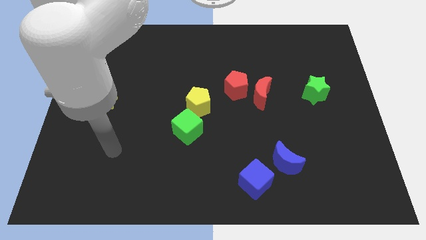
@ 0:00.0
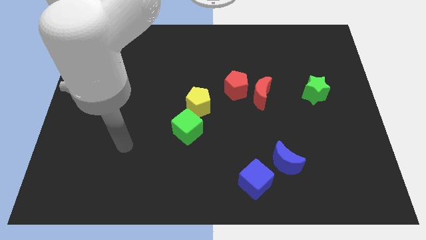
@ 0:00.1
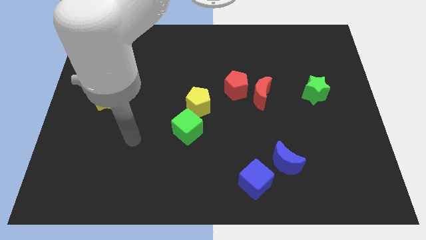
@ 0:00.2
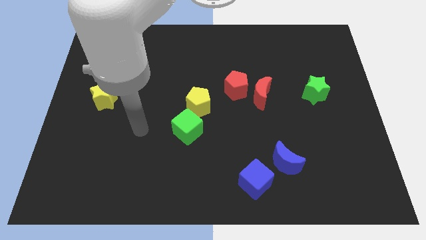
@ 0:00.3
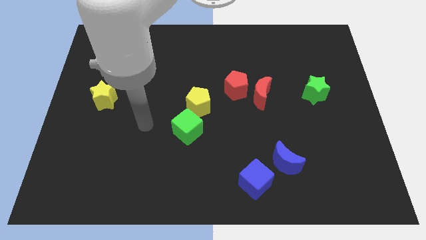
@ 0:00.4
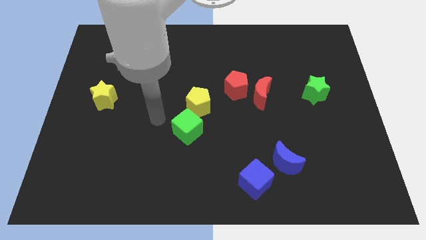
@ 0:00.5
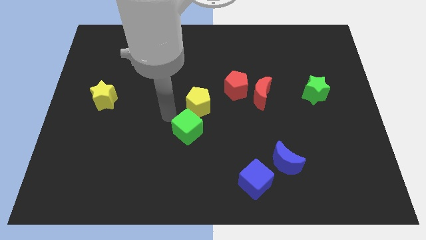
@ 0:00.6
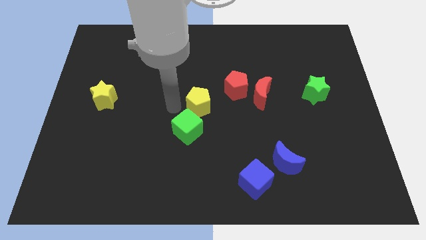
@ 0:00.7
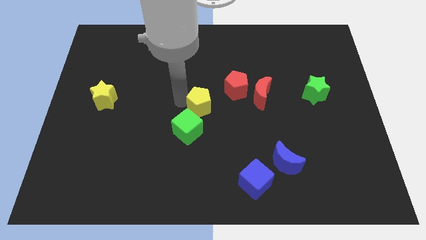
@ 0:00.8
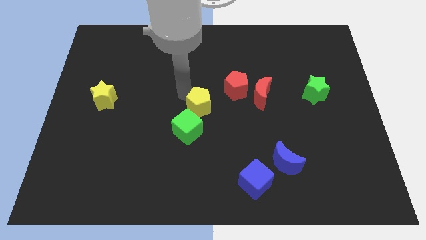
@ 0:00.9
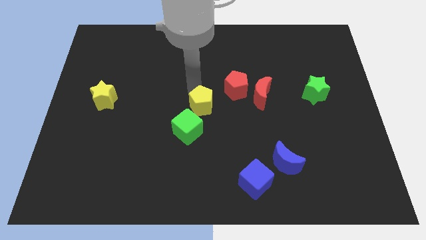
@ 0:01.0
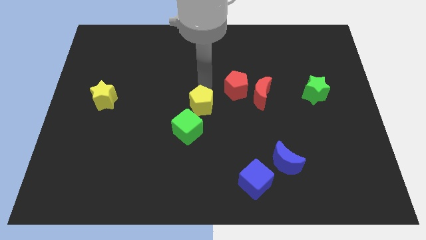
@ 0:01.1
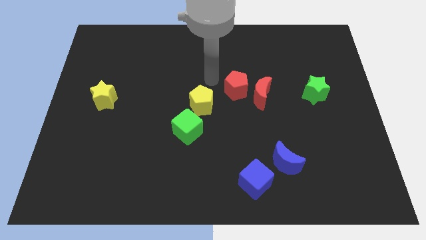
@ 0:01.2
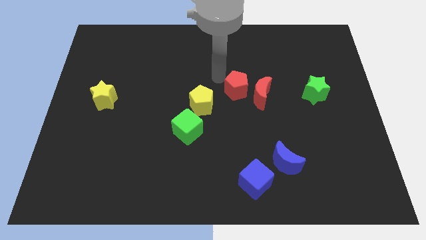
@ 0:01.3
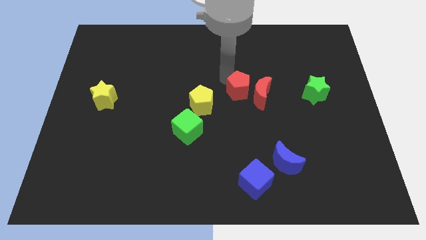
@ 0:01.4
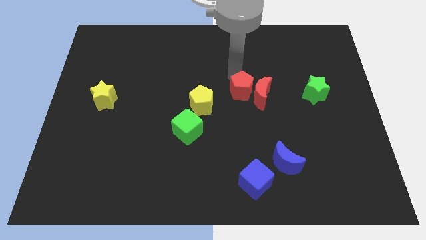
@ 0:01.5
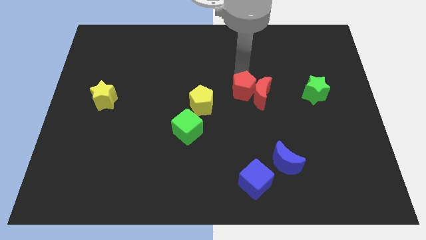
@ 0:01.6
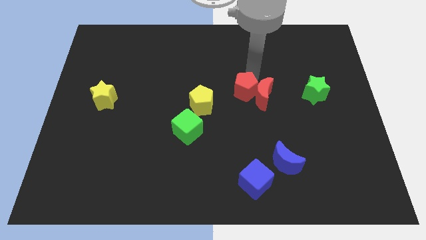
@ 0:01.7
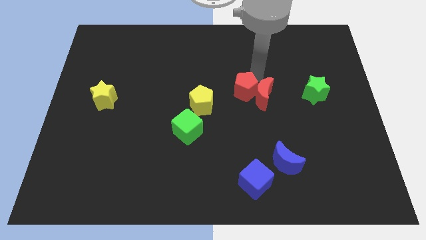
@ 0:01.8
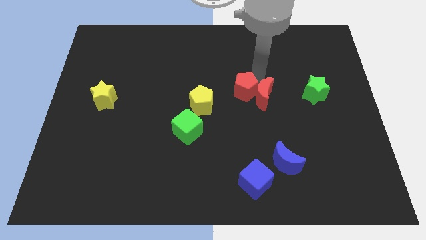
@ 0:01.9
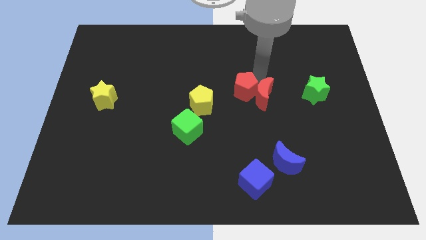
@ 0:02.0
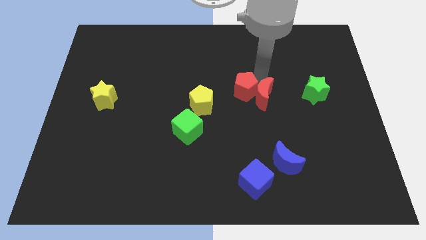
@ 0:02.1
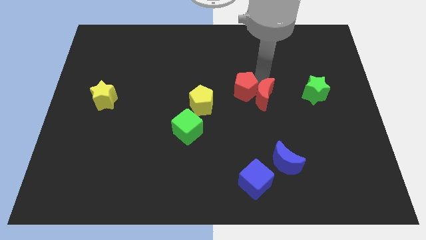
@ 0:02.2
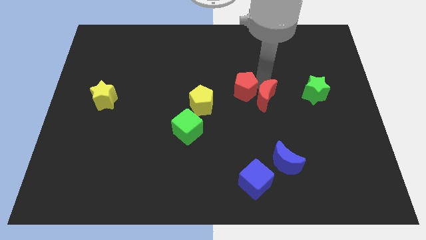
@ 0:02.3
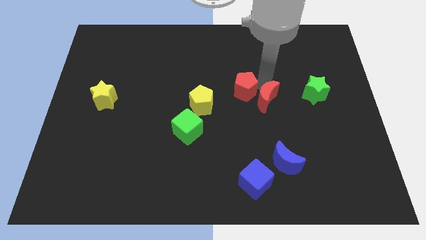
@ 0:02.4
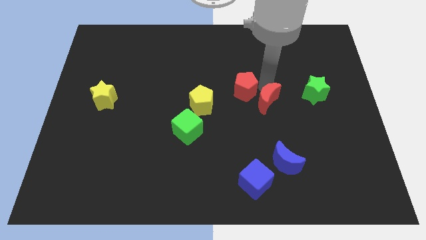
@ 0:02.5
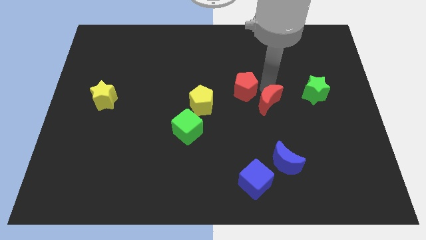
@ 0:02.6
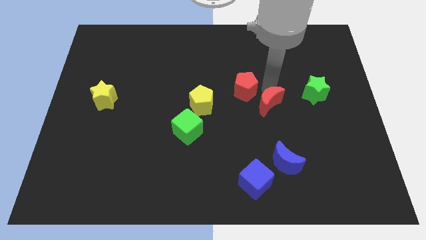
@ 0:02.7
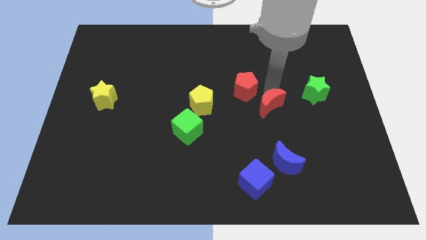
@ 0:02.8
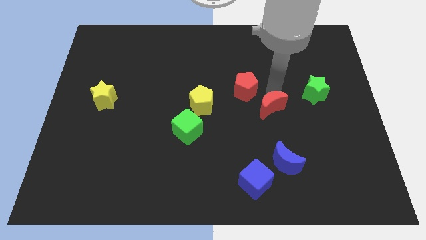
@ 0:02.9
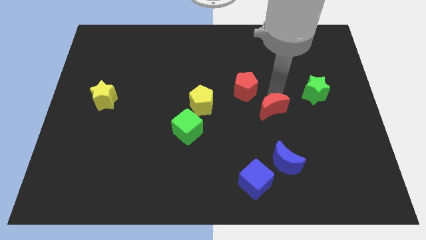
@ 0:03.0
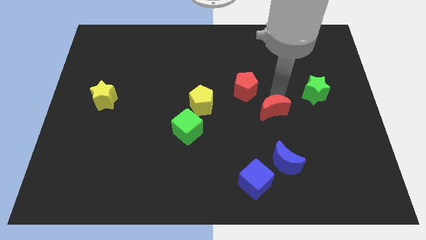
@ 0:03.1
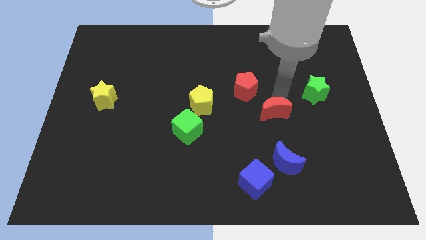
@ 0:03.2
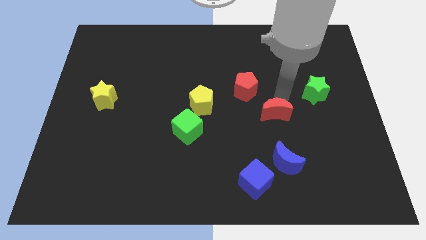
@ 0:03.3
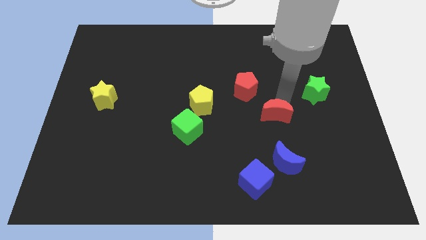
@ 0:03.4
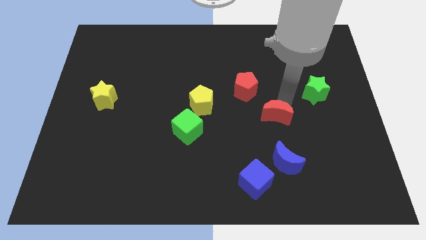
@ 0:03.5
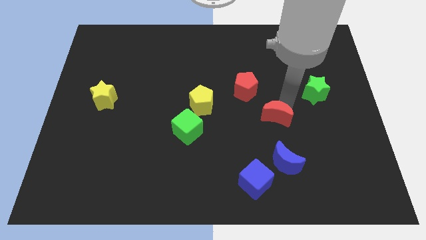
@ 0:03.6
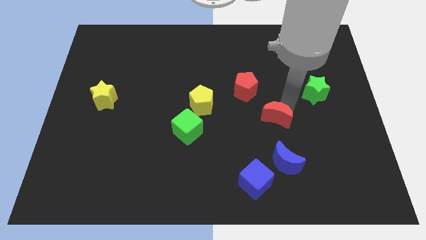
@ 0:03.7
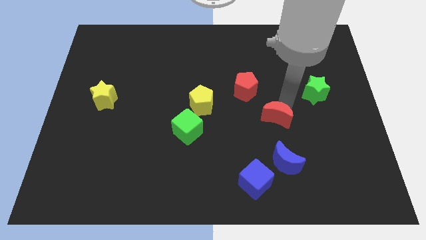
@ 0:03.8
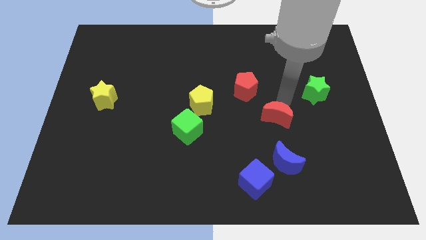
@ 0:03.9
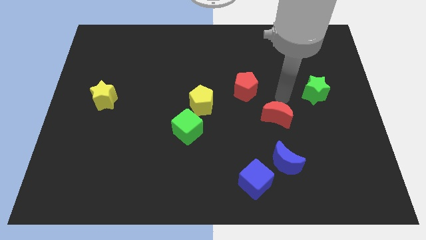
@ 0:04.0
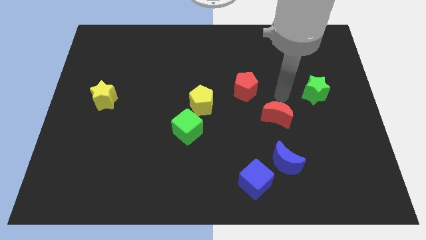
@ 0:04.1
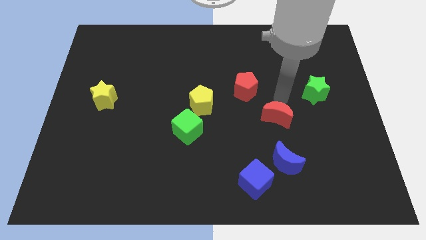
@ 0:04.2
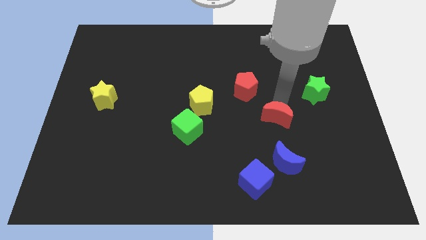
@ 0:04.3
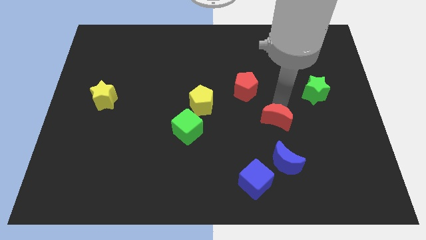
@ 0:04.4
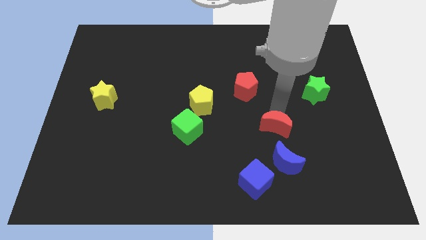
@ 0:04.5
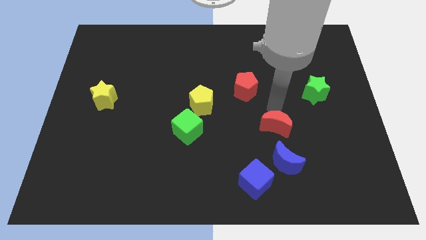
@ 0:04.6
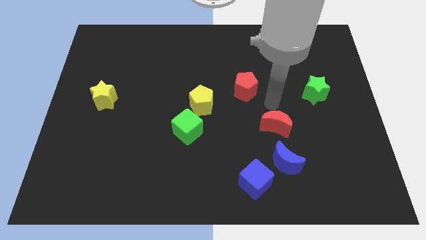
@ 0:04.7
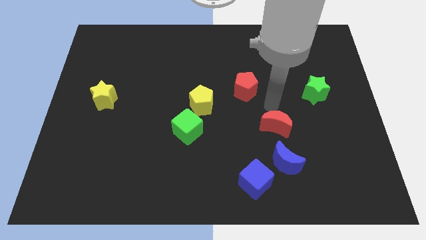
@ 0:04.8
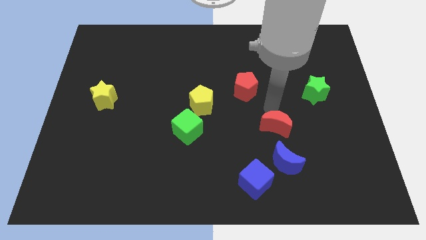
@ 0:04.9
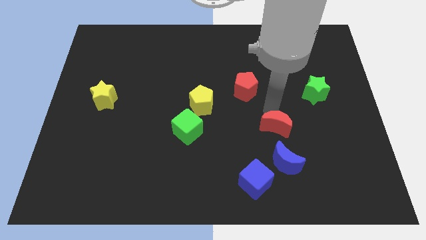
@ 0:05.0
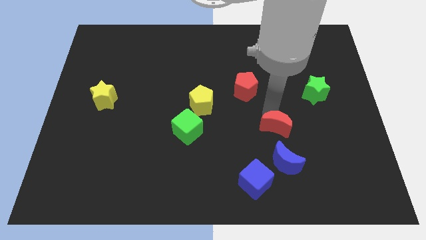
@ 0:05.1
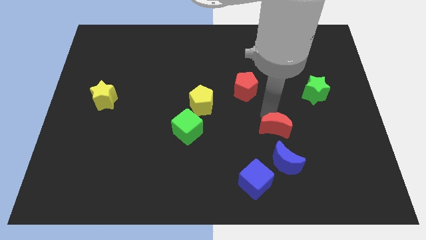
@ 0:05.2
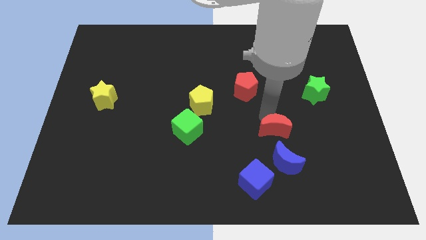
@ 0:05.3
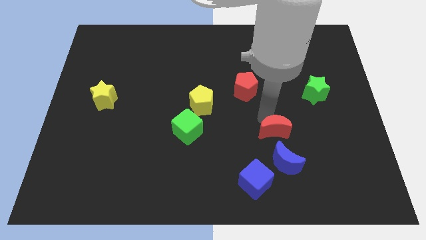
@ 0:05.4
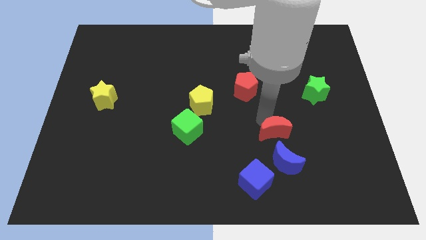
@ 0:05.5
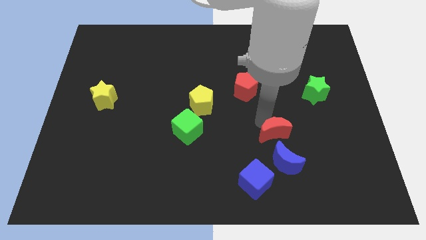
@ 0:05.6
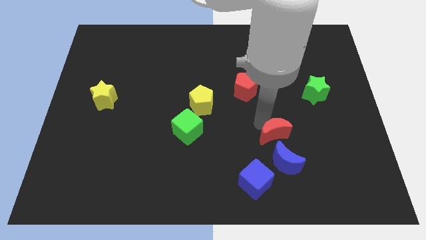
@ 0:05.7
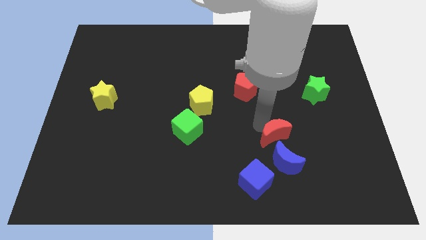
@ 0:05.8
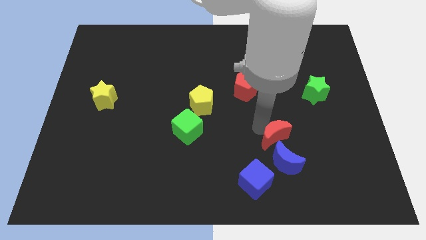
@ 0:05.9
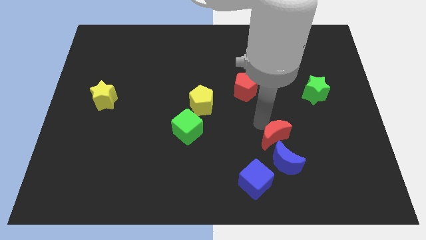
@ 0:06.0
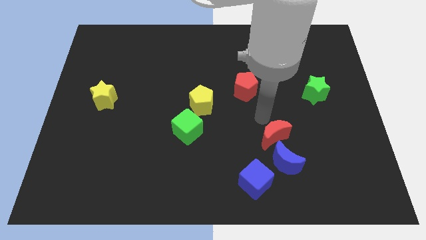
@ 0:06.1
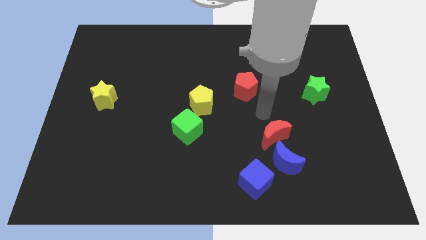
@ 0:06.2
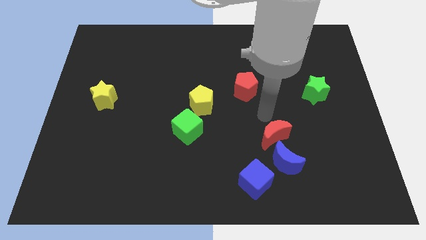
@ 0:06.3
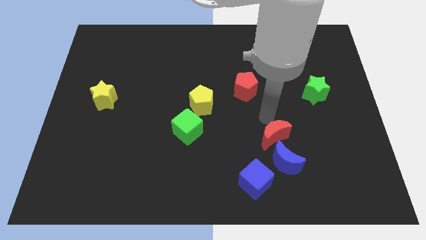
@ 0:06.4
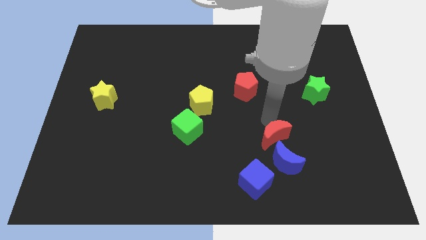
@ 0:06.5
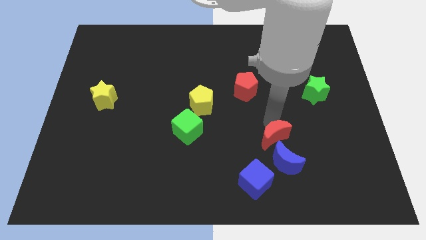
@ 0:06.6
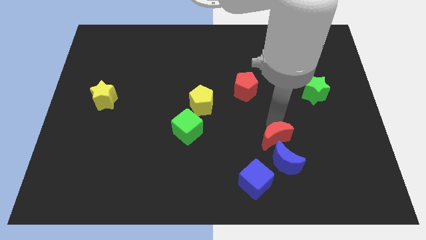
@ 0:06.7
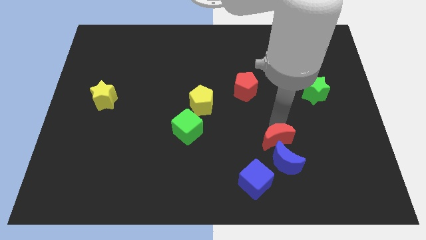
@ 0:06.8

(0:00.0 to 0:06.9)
slide the red moon next to the blue moon
